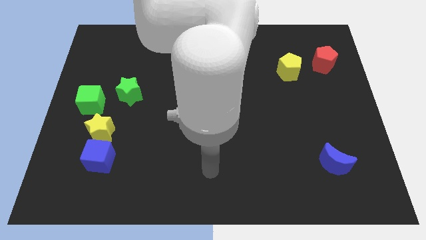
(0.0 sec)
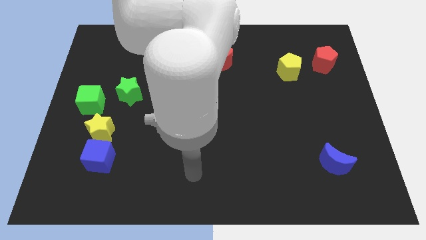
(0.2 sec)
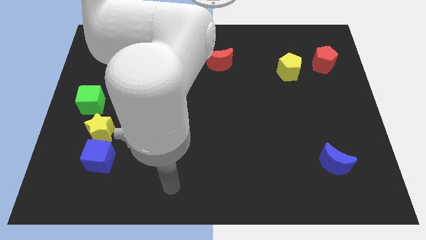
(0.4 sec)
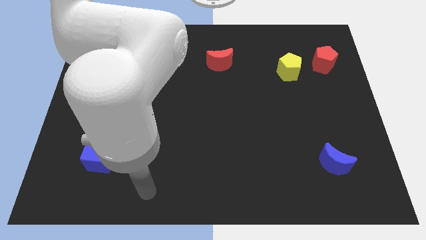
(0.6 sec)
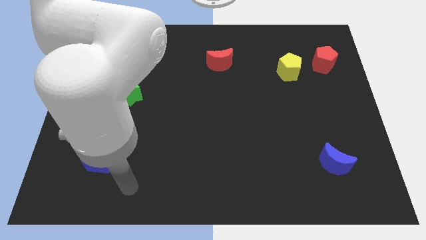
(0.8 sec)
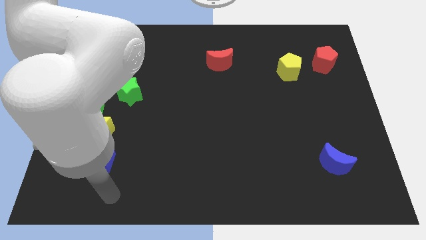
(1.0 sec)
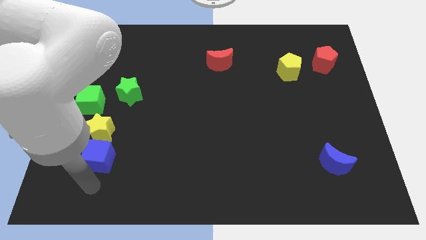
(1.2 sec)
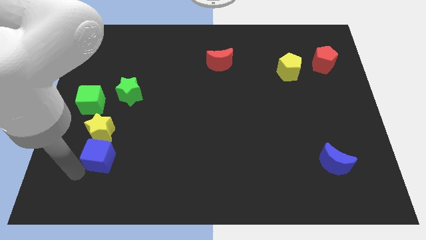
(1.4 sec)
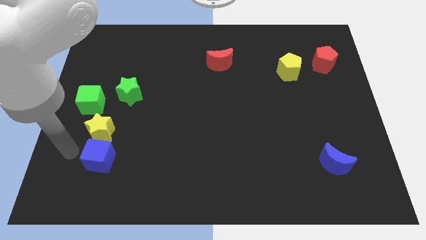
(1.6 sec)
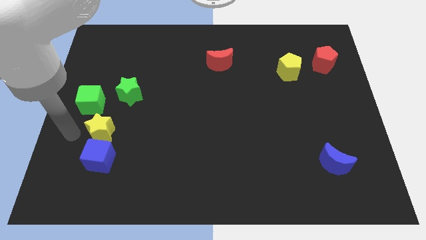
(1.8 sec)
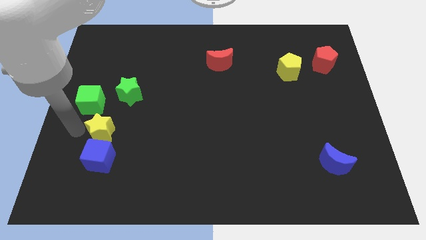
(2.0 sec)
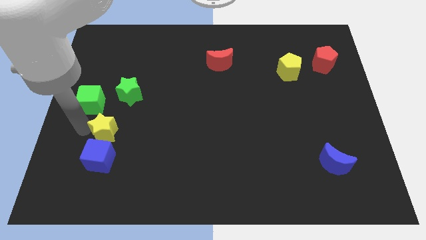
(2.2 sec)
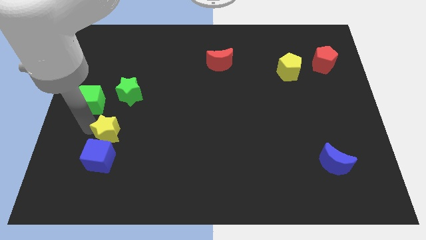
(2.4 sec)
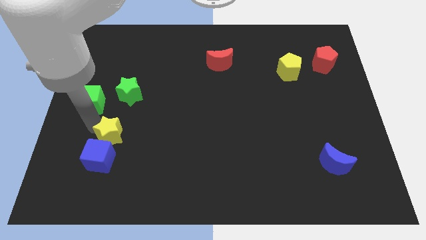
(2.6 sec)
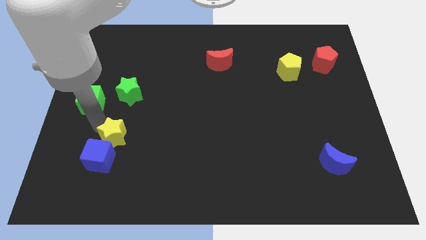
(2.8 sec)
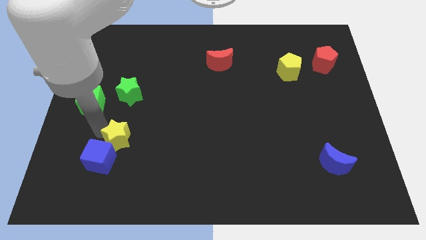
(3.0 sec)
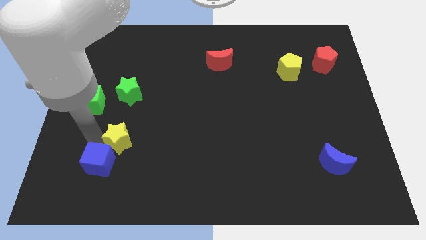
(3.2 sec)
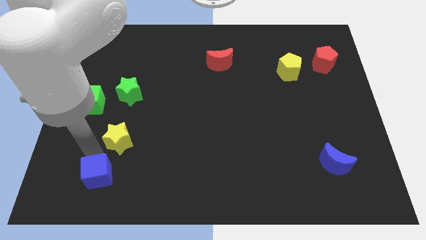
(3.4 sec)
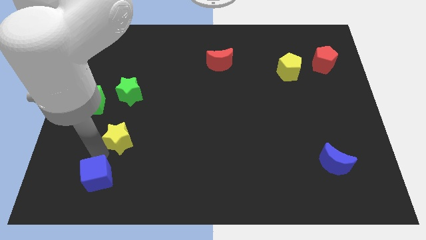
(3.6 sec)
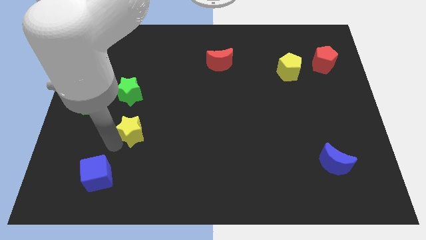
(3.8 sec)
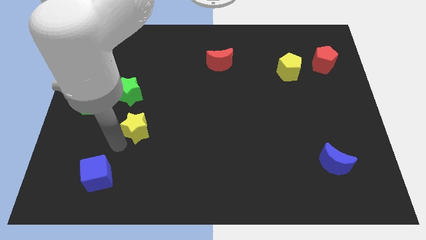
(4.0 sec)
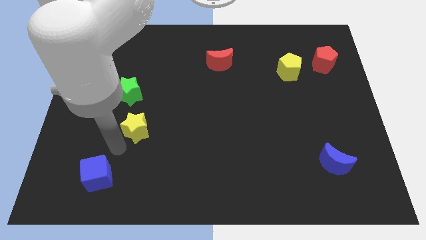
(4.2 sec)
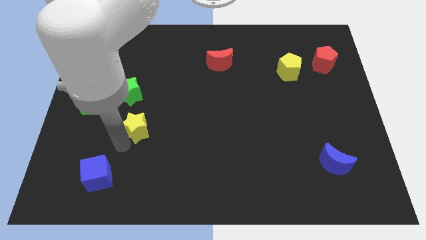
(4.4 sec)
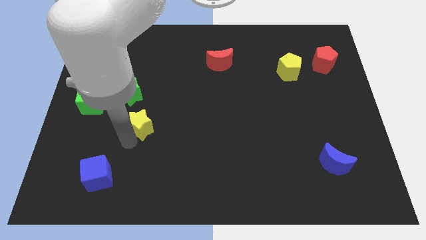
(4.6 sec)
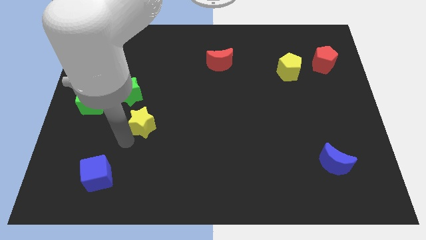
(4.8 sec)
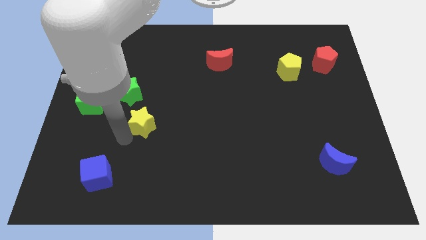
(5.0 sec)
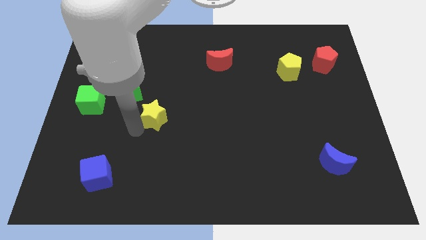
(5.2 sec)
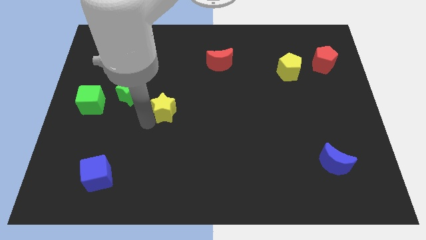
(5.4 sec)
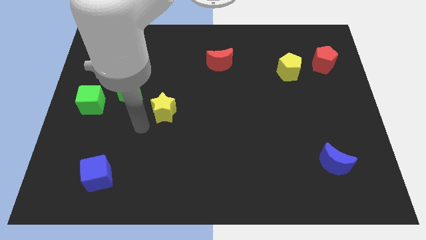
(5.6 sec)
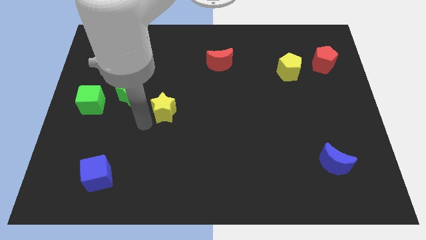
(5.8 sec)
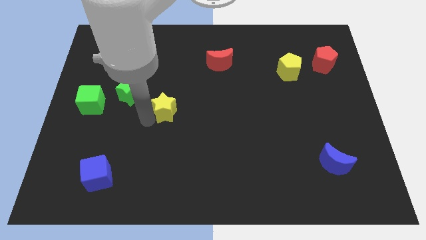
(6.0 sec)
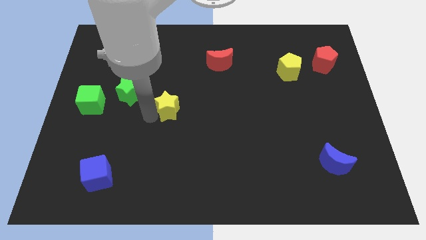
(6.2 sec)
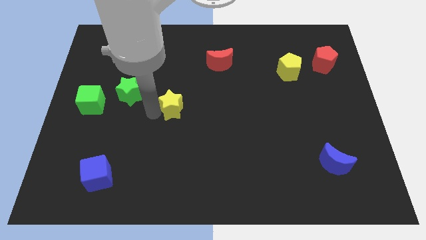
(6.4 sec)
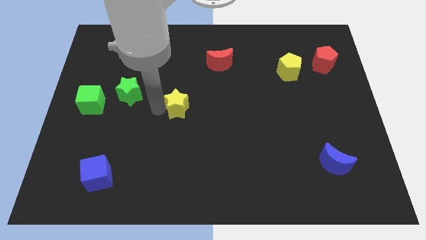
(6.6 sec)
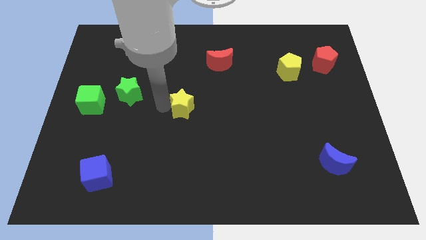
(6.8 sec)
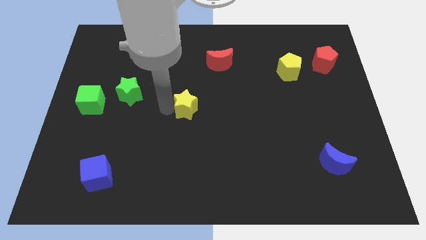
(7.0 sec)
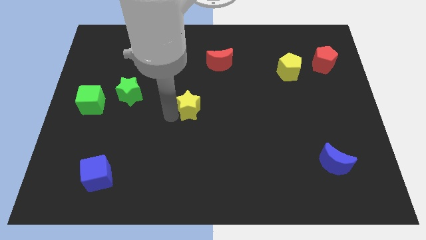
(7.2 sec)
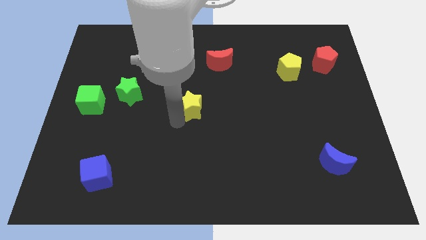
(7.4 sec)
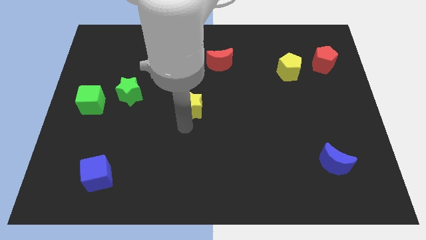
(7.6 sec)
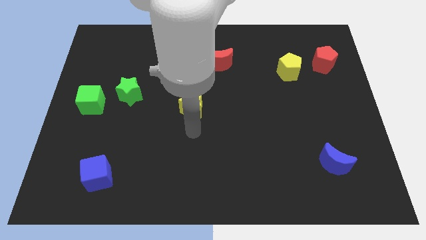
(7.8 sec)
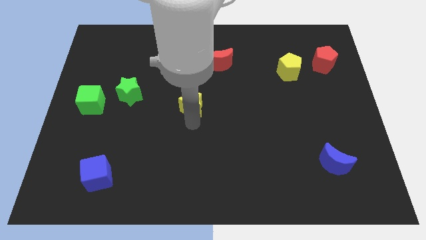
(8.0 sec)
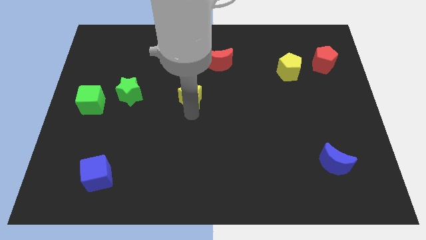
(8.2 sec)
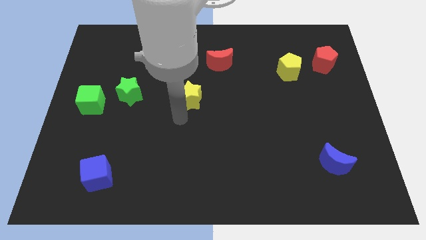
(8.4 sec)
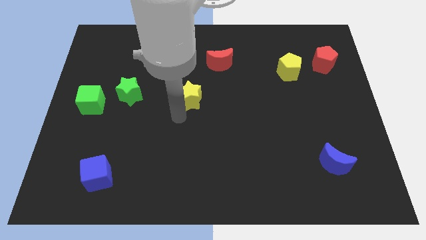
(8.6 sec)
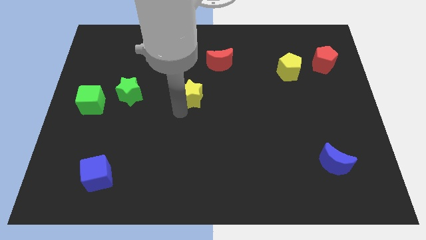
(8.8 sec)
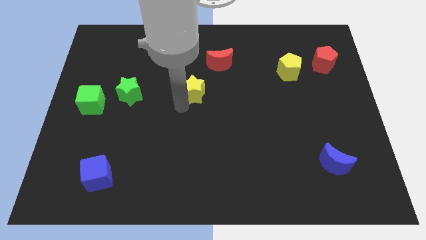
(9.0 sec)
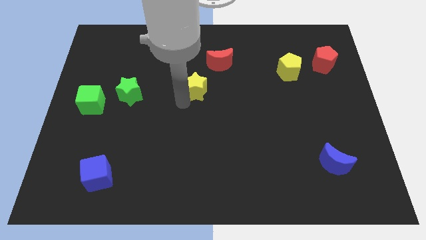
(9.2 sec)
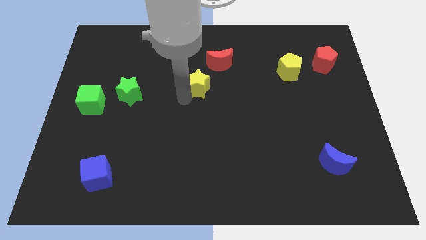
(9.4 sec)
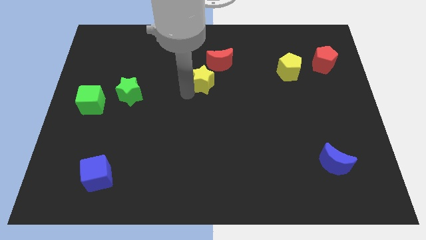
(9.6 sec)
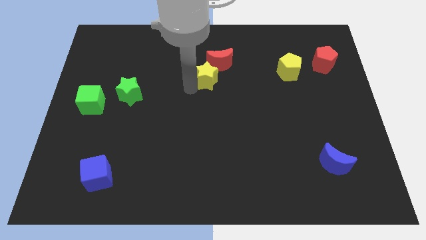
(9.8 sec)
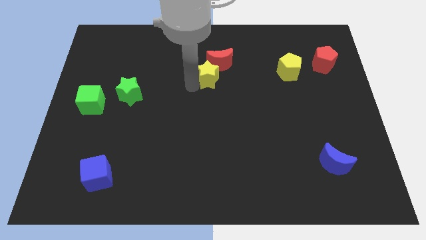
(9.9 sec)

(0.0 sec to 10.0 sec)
slide the yellow star close to the red moon

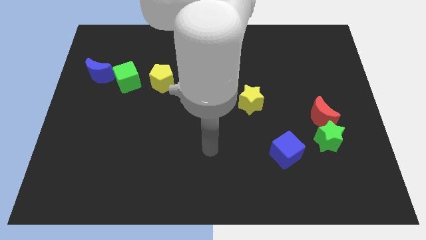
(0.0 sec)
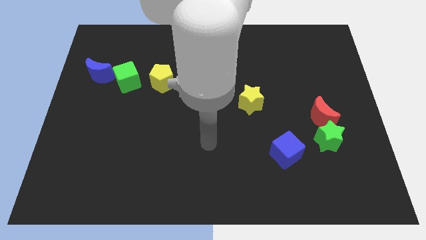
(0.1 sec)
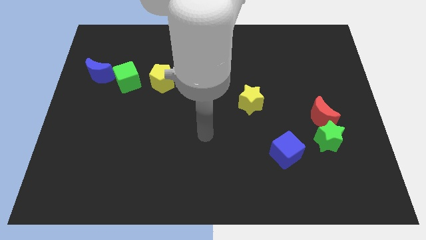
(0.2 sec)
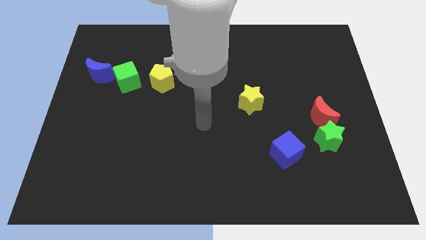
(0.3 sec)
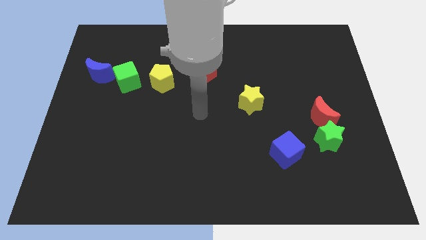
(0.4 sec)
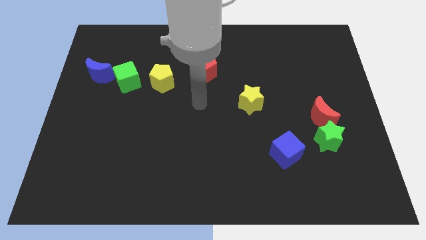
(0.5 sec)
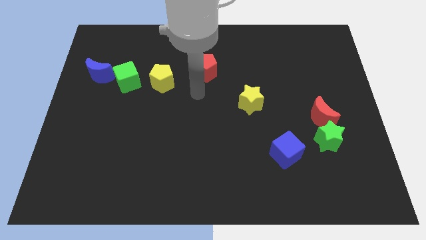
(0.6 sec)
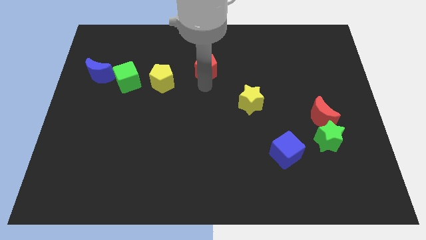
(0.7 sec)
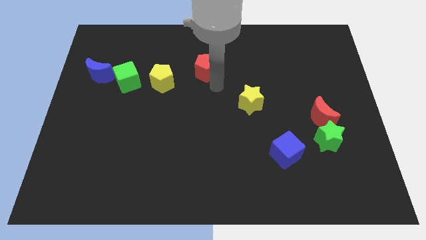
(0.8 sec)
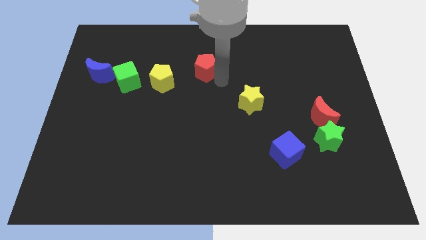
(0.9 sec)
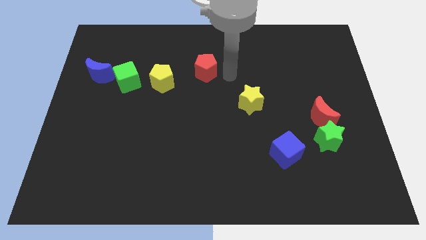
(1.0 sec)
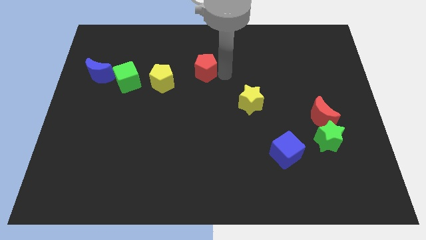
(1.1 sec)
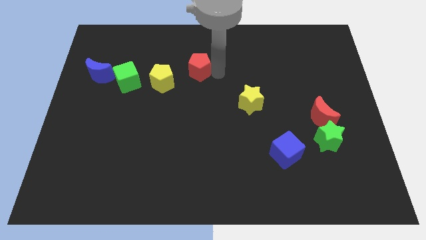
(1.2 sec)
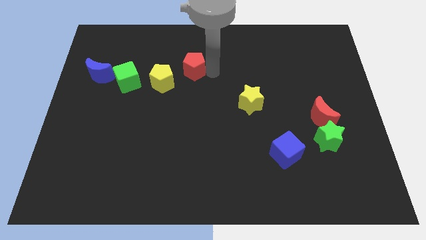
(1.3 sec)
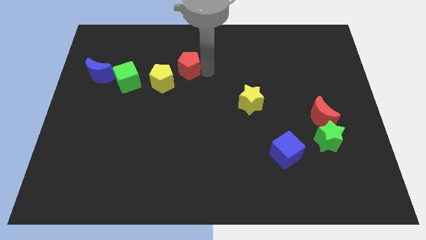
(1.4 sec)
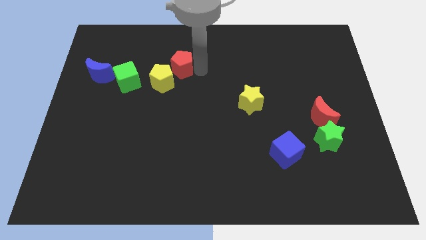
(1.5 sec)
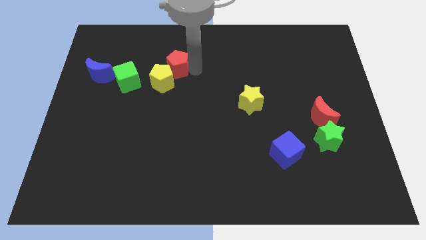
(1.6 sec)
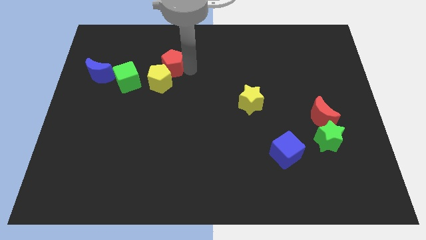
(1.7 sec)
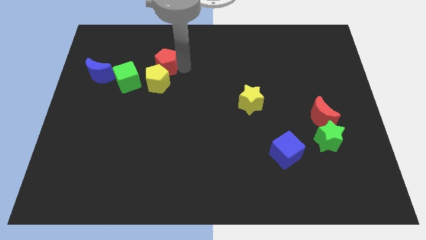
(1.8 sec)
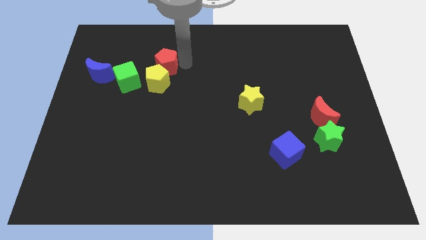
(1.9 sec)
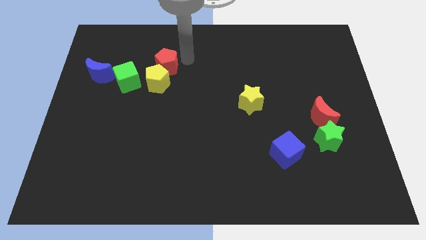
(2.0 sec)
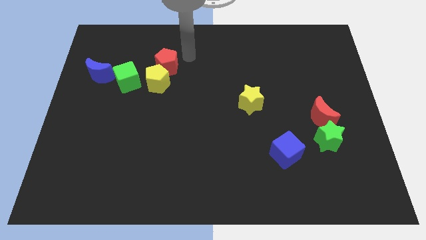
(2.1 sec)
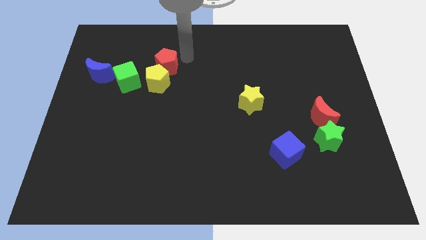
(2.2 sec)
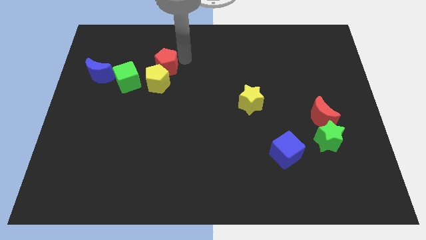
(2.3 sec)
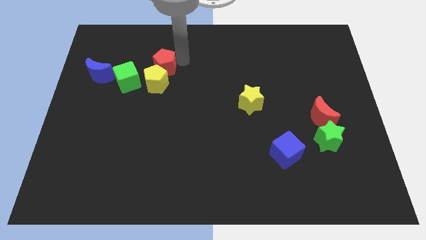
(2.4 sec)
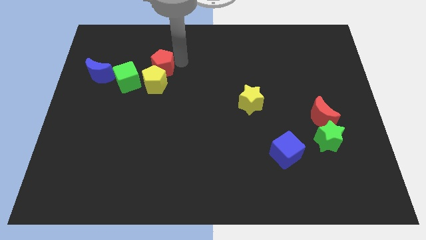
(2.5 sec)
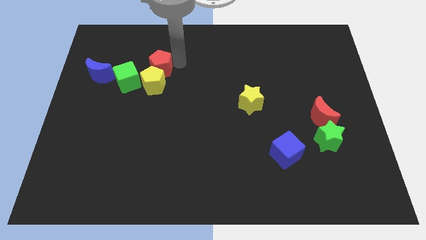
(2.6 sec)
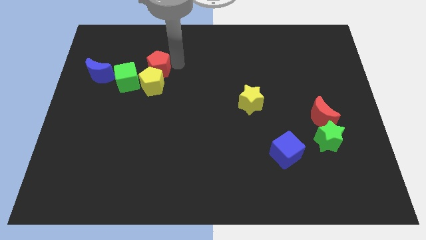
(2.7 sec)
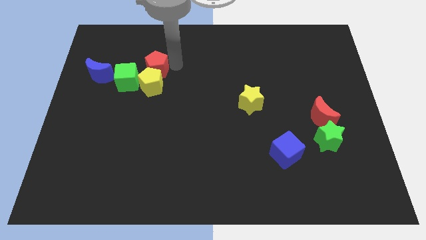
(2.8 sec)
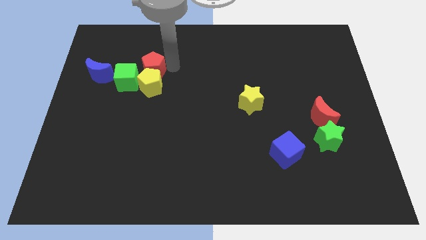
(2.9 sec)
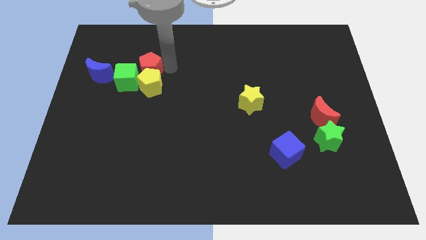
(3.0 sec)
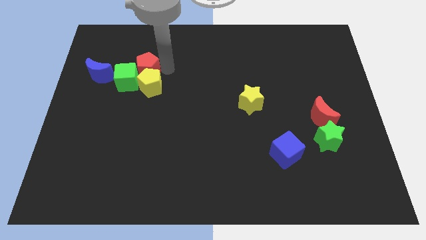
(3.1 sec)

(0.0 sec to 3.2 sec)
slide the red pentagon towards the green cube
